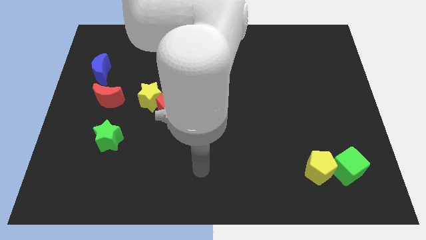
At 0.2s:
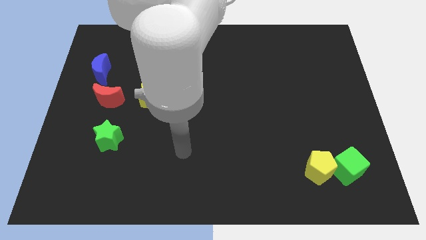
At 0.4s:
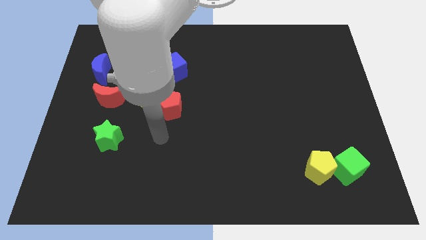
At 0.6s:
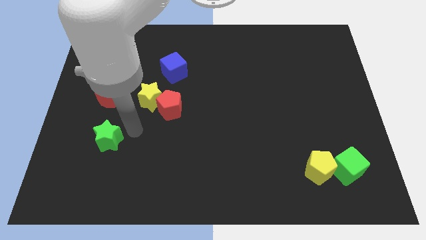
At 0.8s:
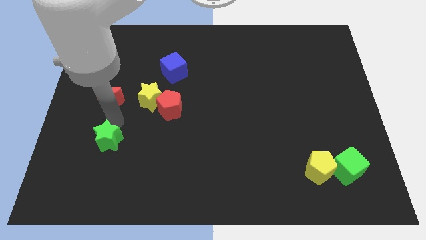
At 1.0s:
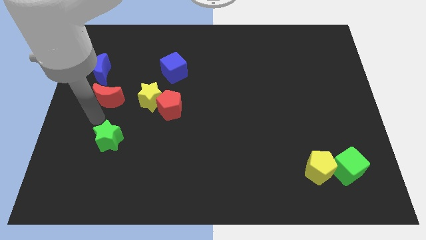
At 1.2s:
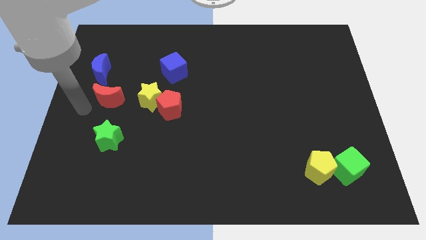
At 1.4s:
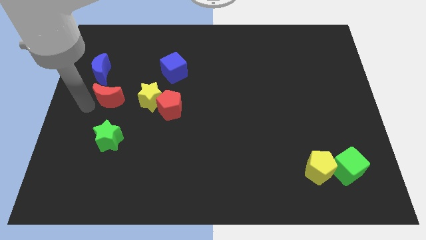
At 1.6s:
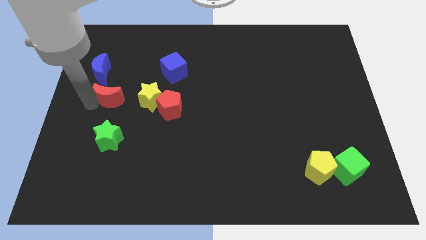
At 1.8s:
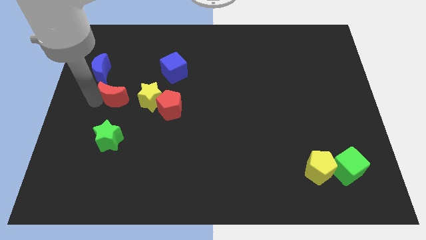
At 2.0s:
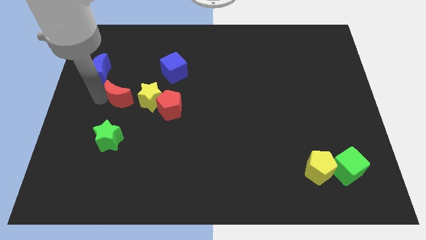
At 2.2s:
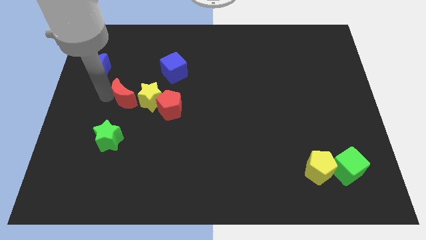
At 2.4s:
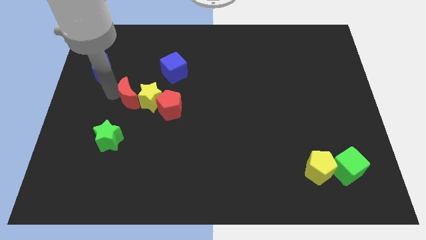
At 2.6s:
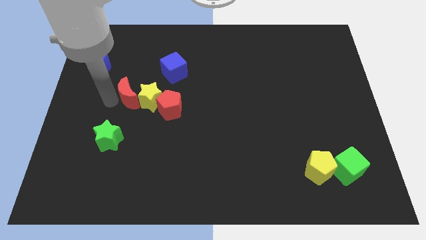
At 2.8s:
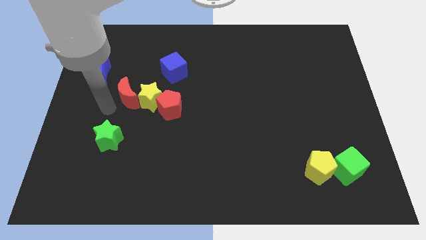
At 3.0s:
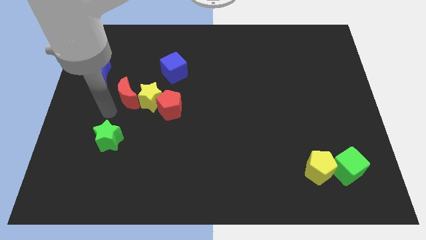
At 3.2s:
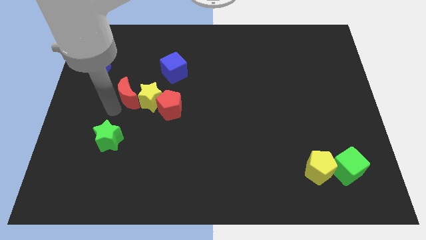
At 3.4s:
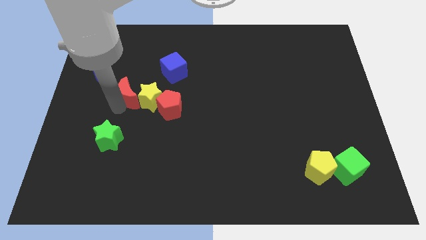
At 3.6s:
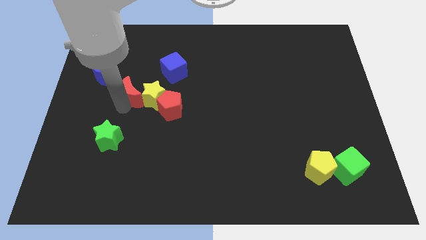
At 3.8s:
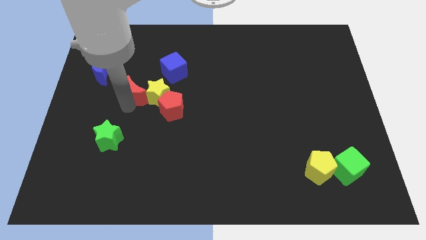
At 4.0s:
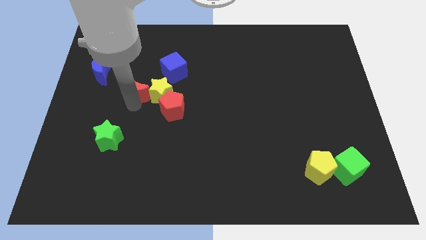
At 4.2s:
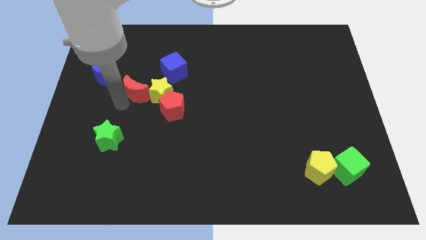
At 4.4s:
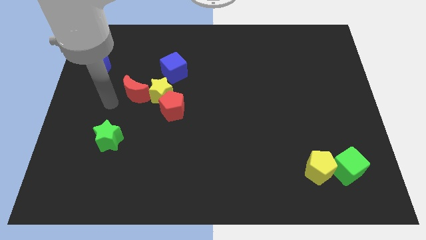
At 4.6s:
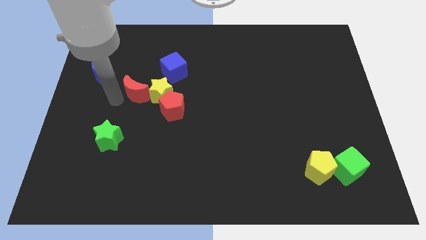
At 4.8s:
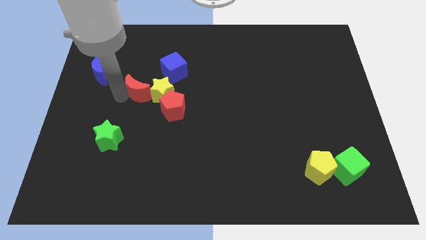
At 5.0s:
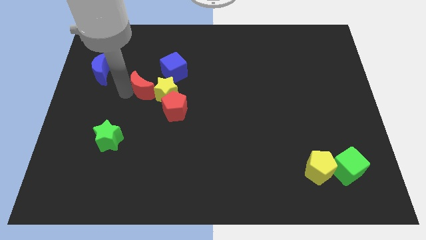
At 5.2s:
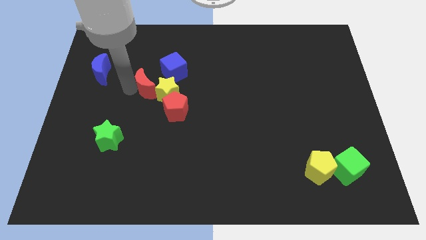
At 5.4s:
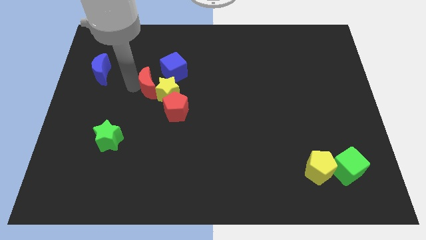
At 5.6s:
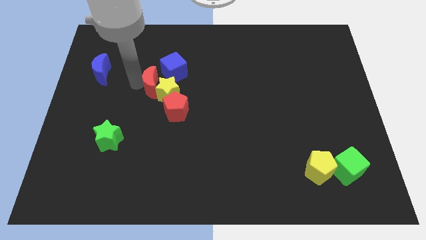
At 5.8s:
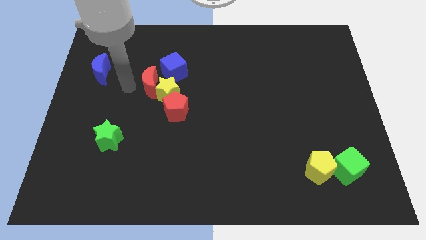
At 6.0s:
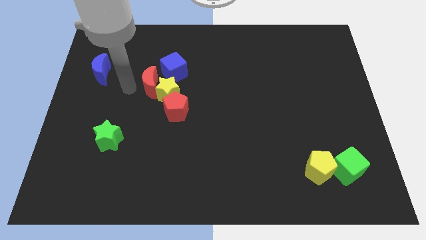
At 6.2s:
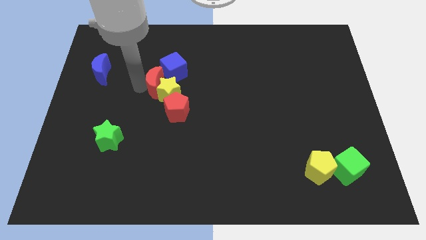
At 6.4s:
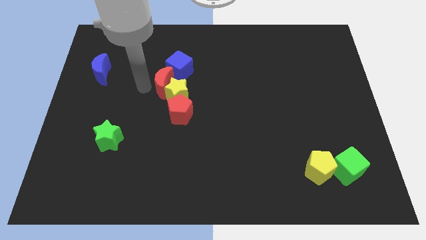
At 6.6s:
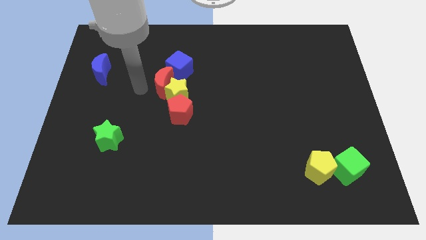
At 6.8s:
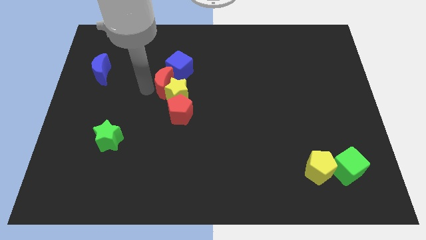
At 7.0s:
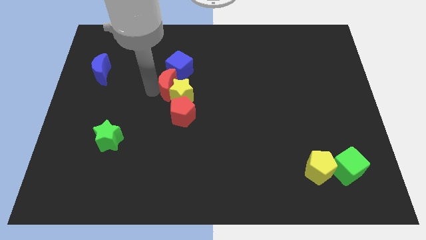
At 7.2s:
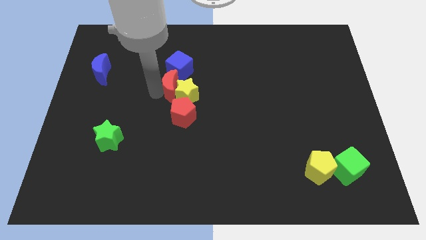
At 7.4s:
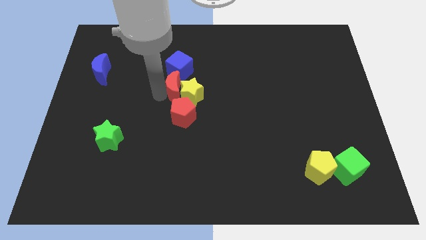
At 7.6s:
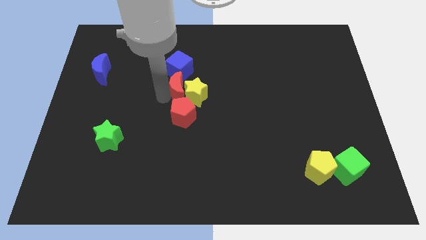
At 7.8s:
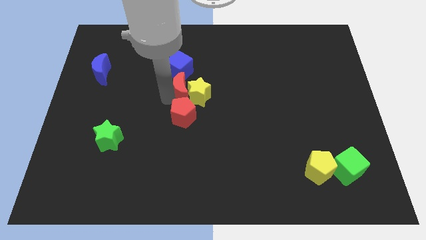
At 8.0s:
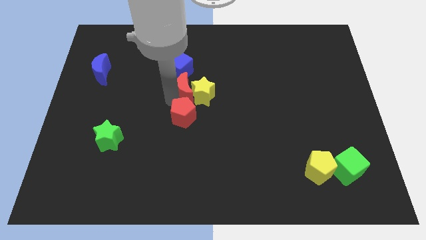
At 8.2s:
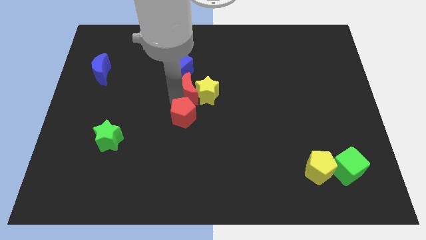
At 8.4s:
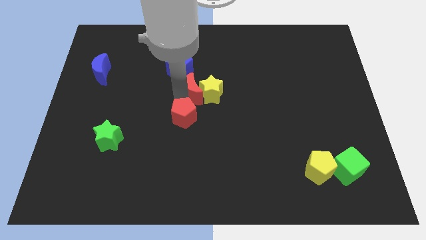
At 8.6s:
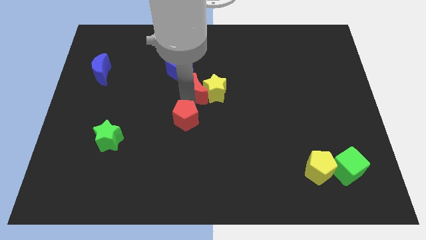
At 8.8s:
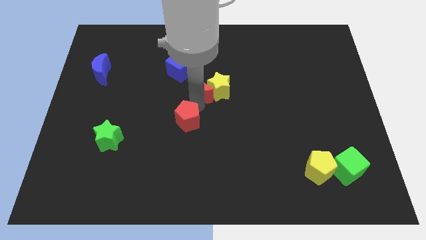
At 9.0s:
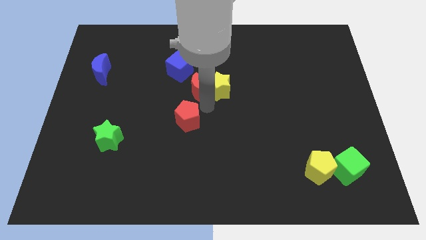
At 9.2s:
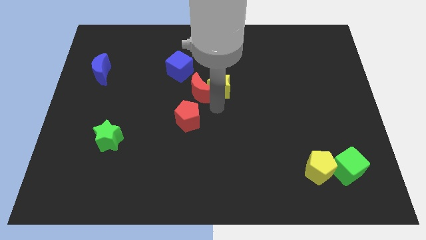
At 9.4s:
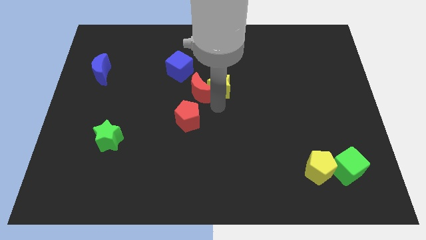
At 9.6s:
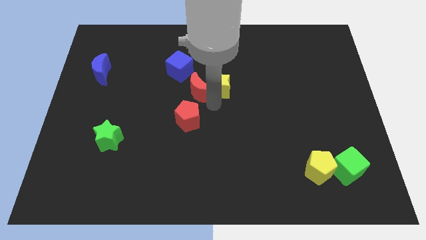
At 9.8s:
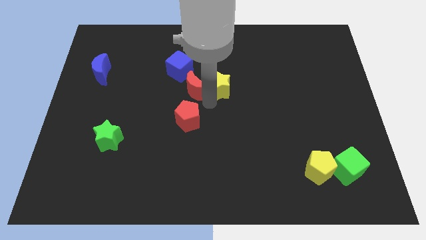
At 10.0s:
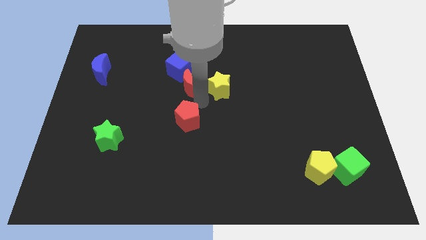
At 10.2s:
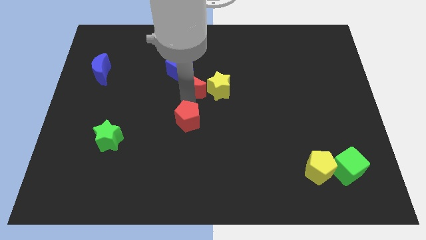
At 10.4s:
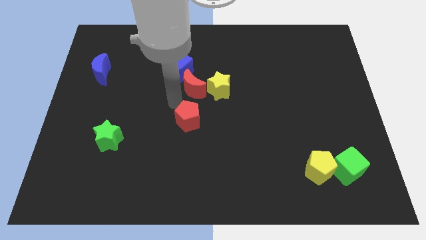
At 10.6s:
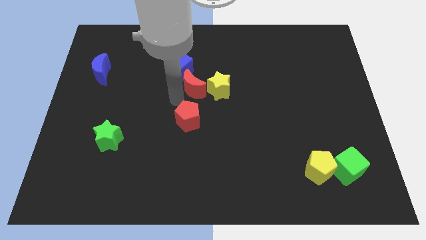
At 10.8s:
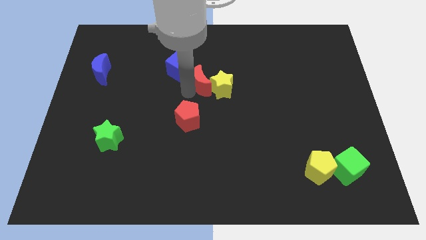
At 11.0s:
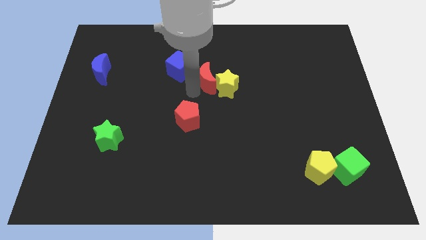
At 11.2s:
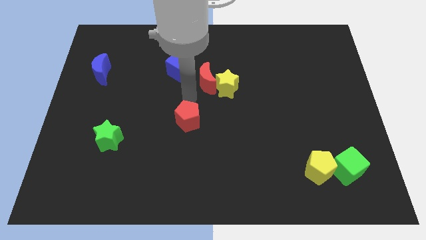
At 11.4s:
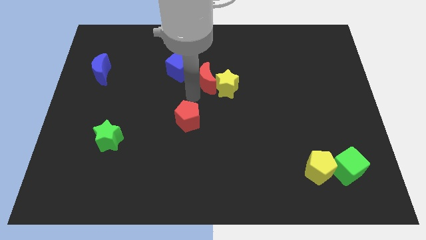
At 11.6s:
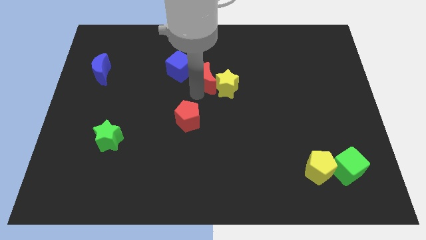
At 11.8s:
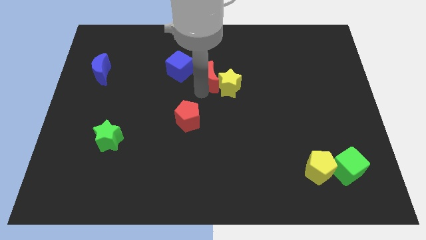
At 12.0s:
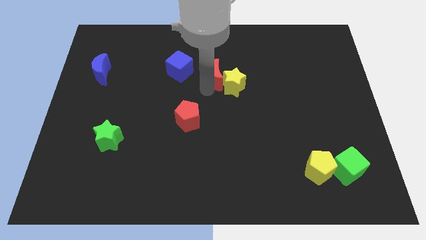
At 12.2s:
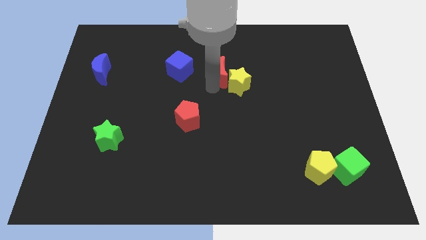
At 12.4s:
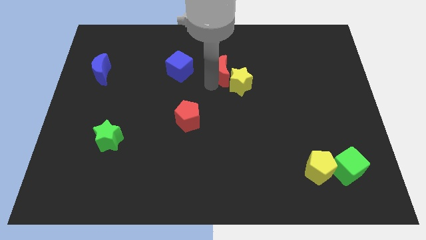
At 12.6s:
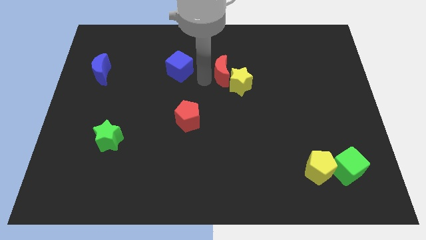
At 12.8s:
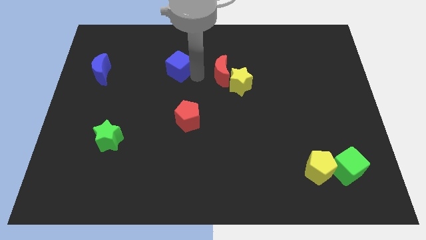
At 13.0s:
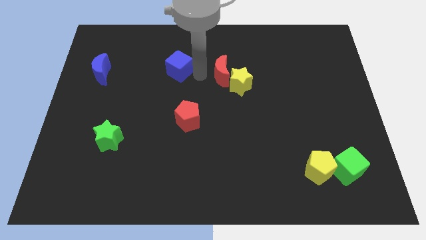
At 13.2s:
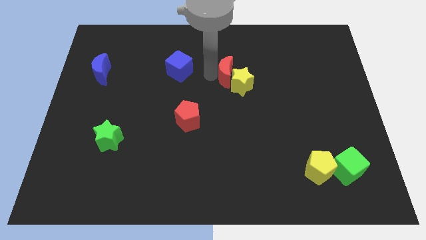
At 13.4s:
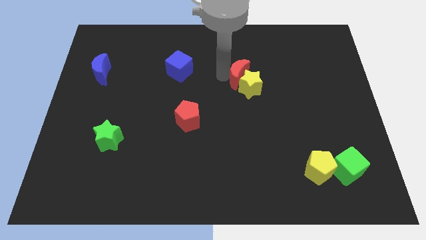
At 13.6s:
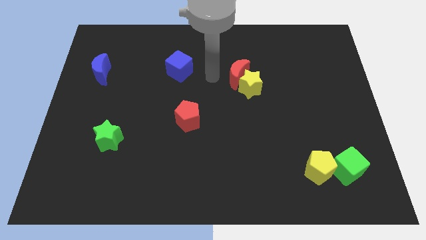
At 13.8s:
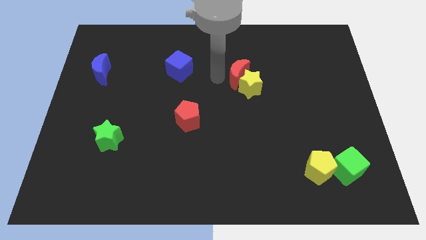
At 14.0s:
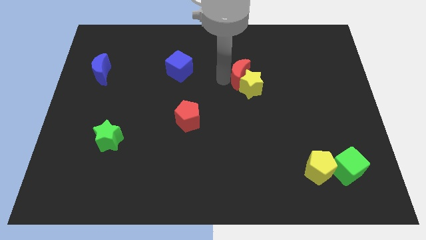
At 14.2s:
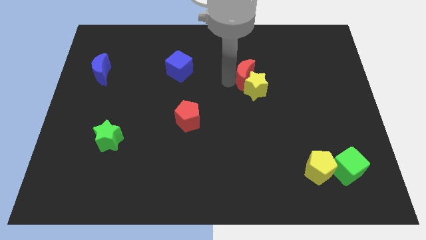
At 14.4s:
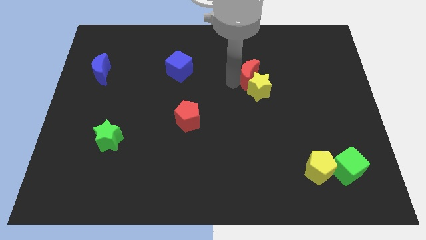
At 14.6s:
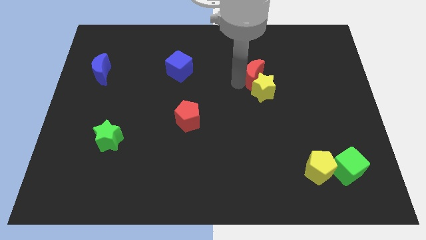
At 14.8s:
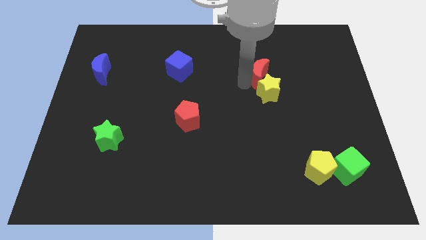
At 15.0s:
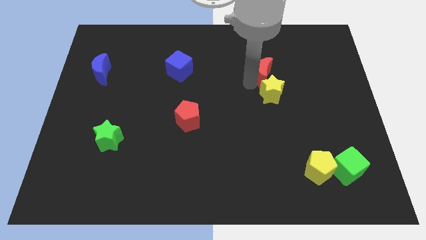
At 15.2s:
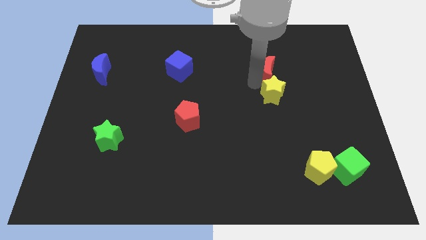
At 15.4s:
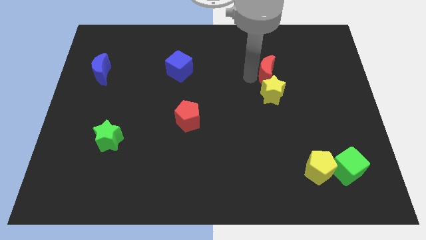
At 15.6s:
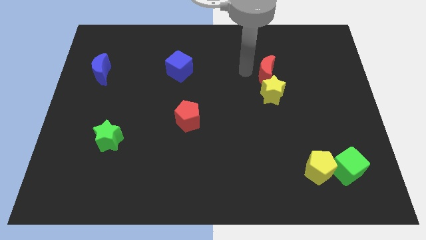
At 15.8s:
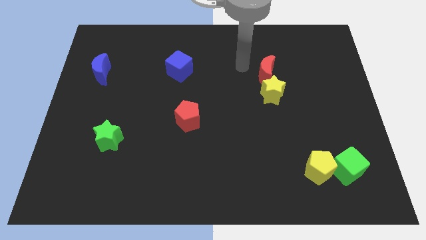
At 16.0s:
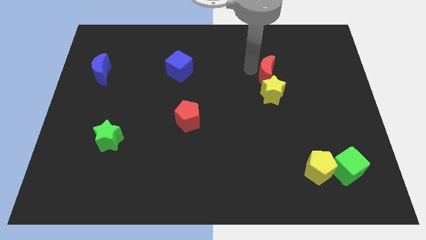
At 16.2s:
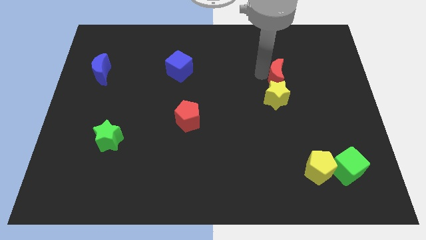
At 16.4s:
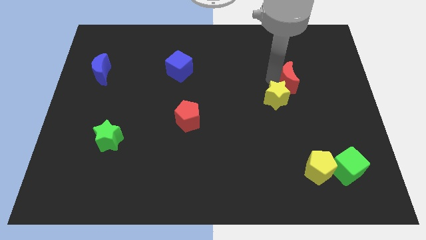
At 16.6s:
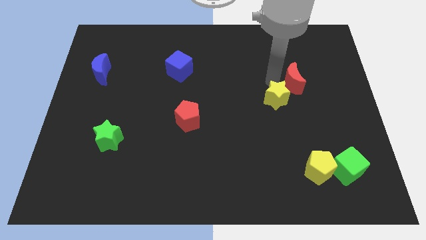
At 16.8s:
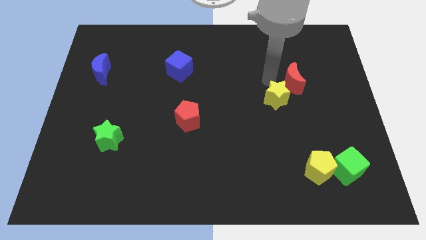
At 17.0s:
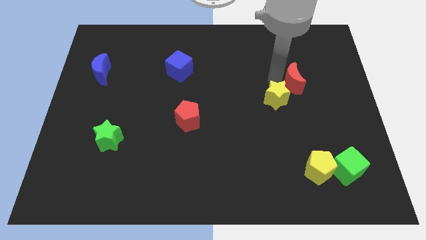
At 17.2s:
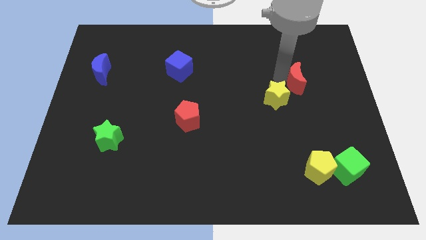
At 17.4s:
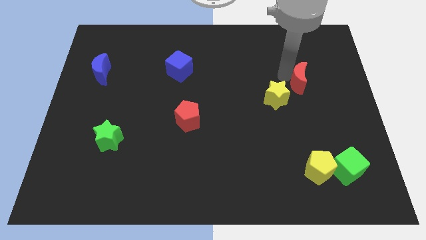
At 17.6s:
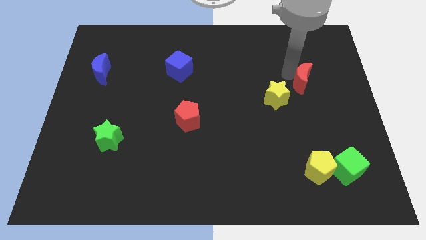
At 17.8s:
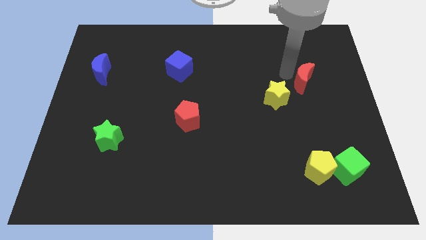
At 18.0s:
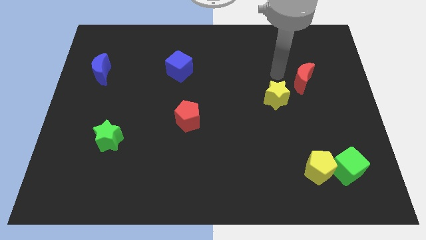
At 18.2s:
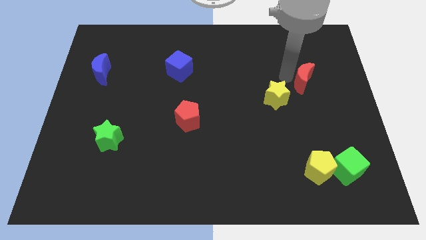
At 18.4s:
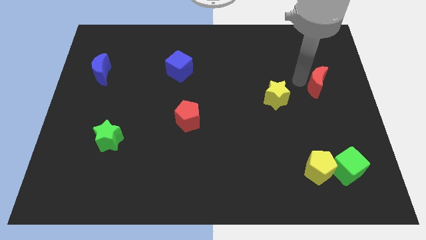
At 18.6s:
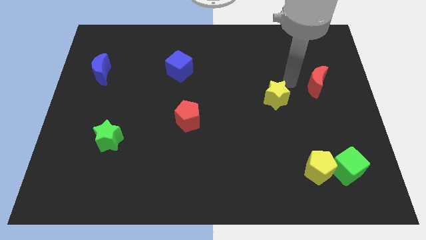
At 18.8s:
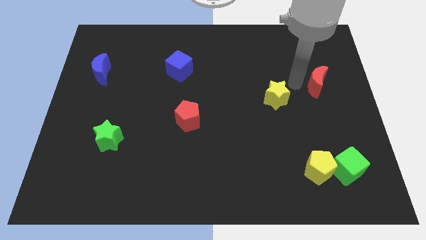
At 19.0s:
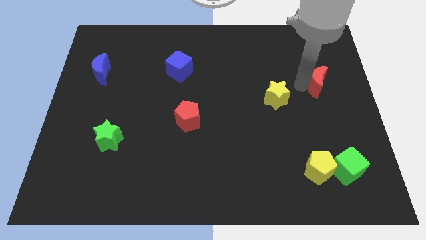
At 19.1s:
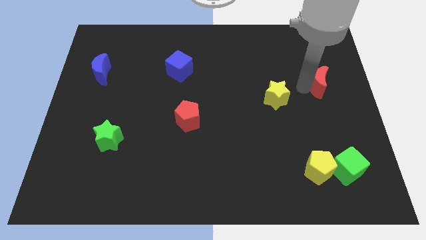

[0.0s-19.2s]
move the red moon to the right side
